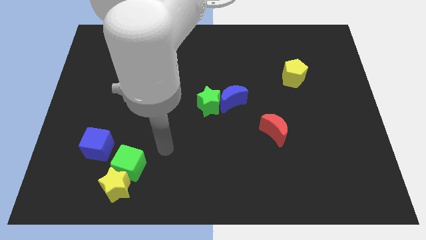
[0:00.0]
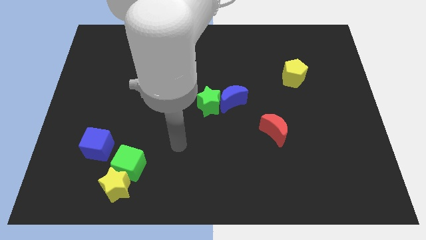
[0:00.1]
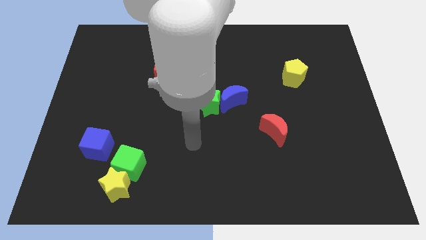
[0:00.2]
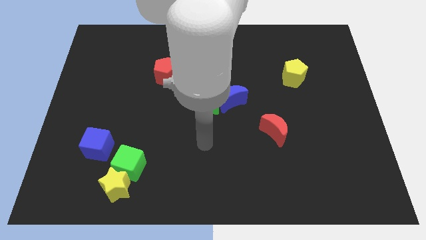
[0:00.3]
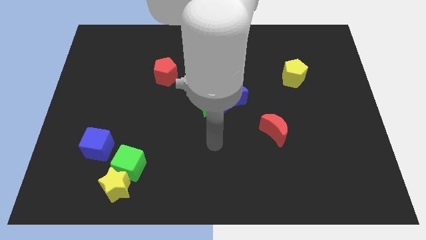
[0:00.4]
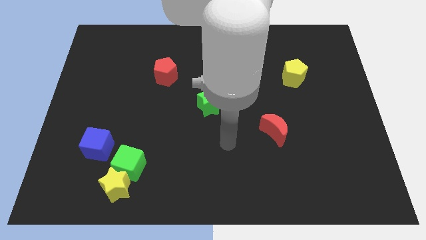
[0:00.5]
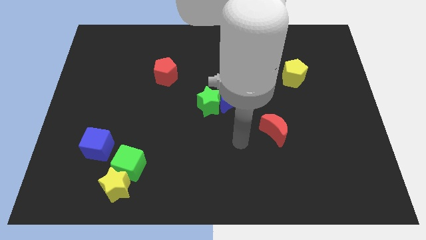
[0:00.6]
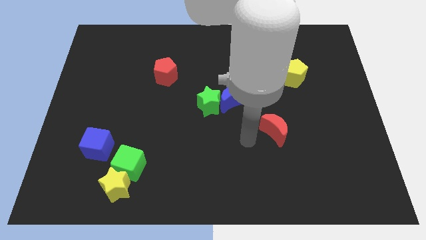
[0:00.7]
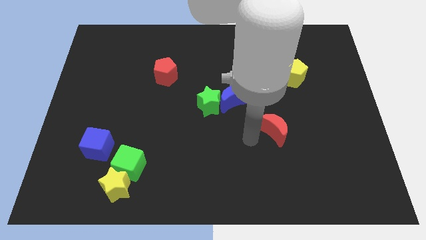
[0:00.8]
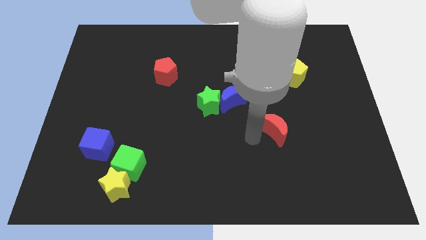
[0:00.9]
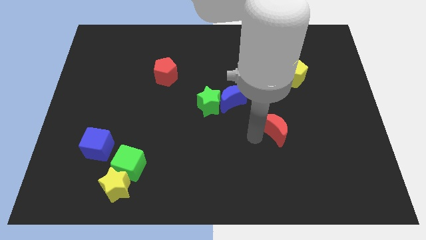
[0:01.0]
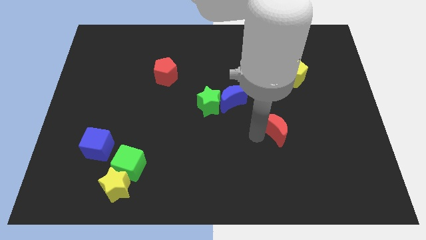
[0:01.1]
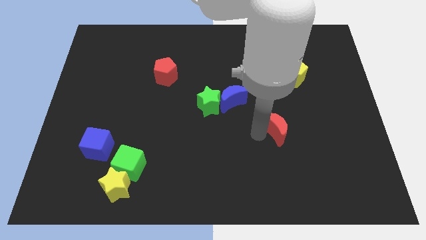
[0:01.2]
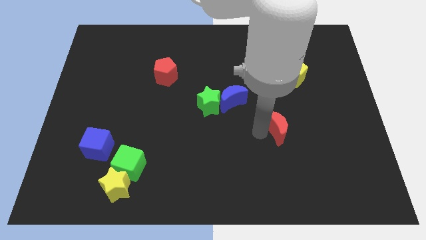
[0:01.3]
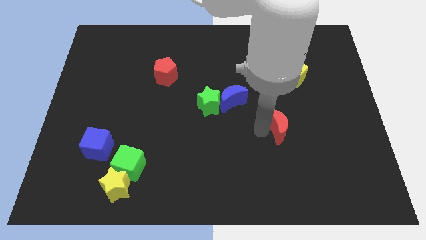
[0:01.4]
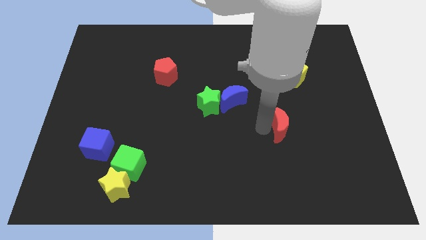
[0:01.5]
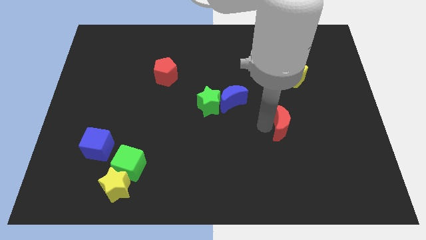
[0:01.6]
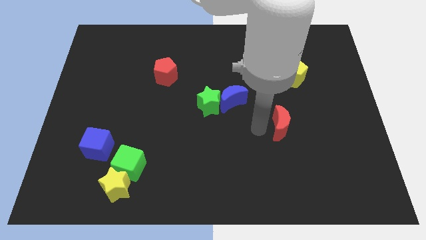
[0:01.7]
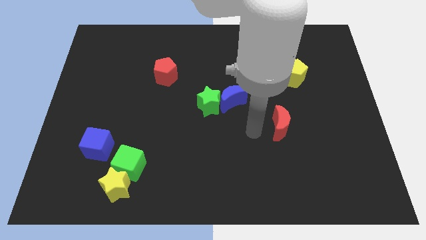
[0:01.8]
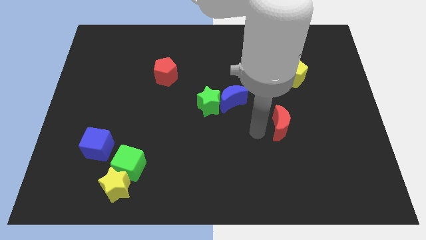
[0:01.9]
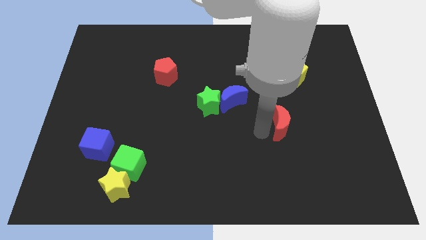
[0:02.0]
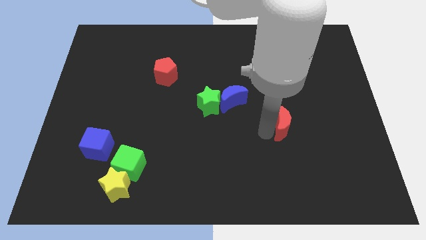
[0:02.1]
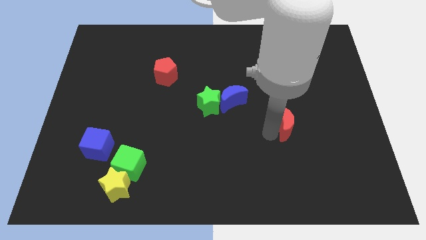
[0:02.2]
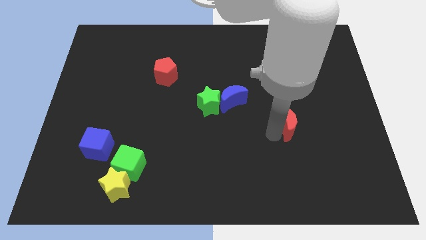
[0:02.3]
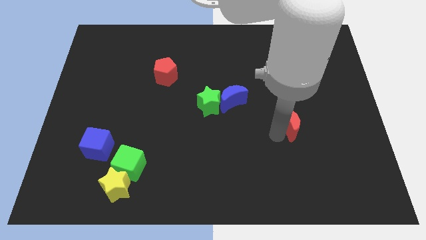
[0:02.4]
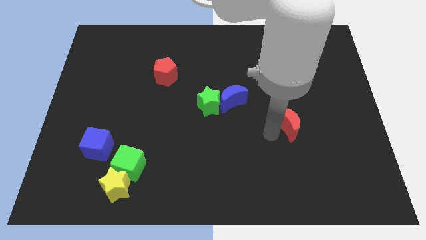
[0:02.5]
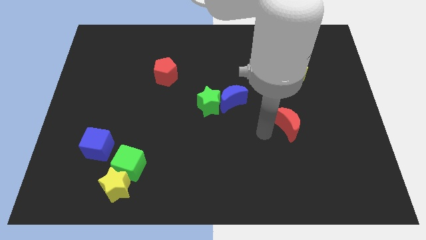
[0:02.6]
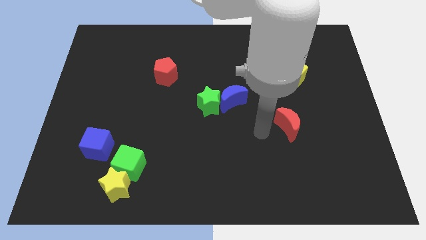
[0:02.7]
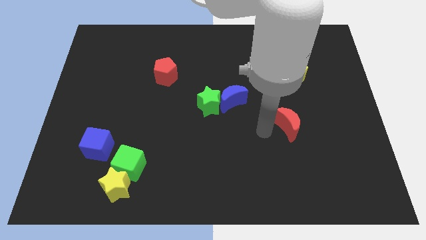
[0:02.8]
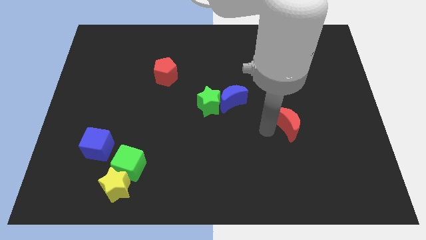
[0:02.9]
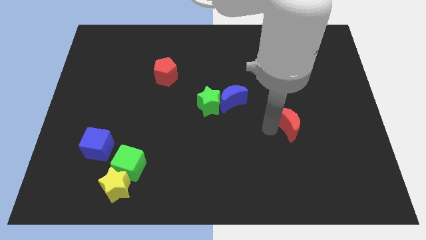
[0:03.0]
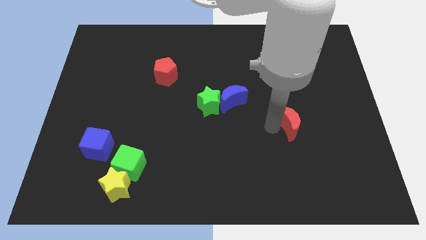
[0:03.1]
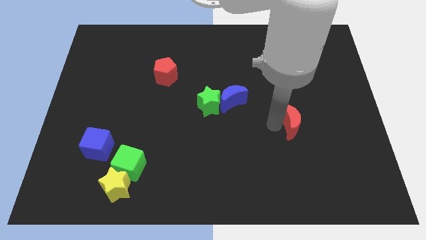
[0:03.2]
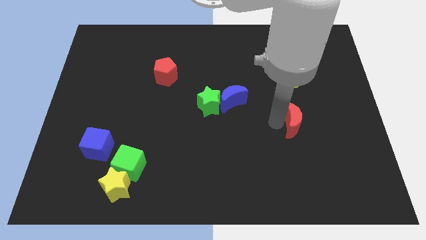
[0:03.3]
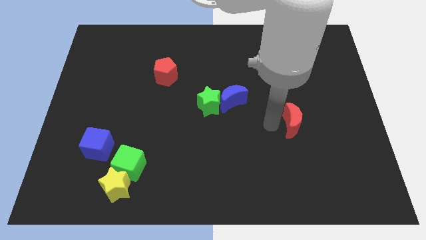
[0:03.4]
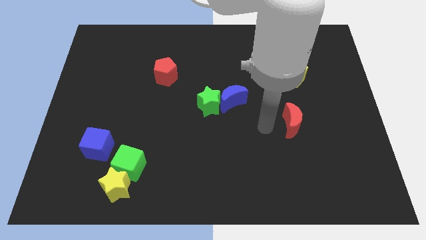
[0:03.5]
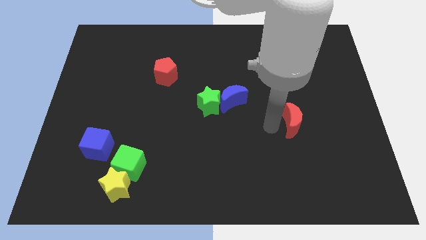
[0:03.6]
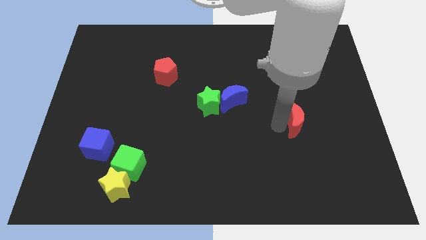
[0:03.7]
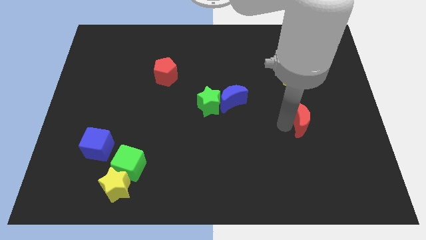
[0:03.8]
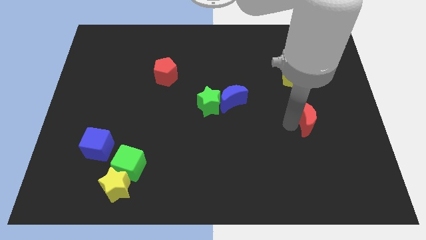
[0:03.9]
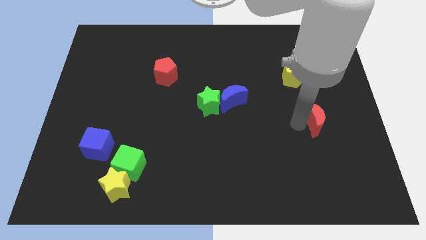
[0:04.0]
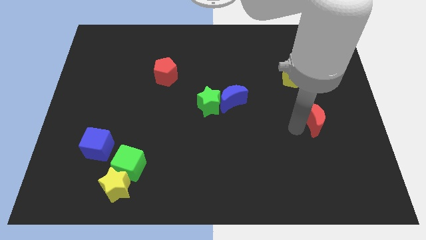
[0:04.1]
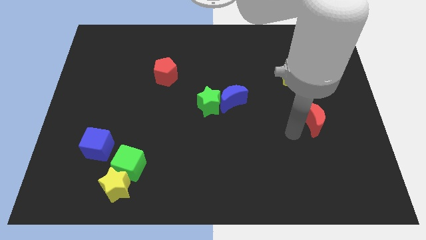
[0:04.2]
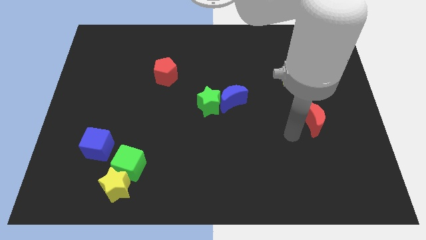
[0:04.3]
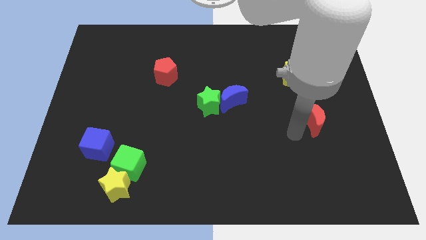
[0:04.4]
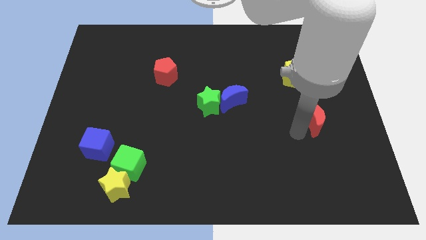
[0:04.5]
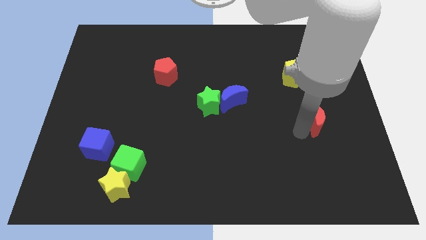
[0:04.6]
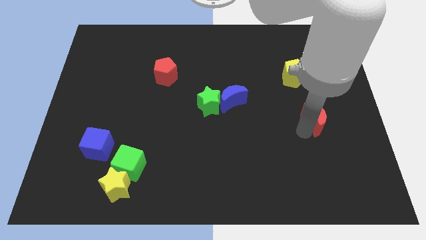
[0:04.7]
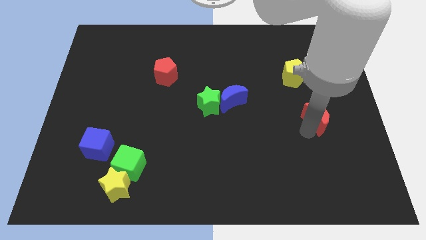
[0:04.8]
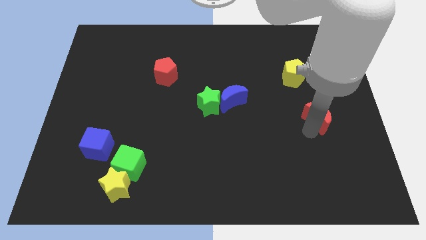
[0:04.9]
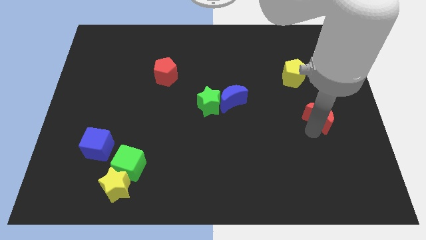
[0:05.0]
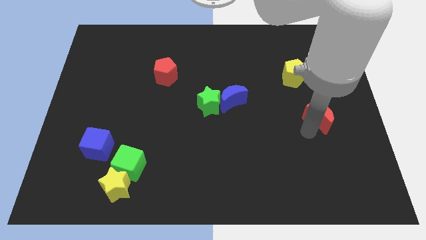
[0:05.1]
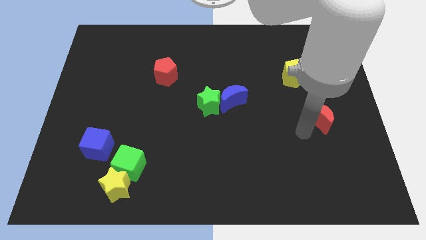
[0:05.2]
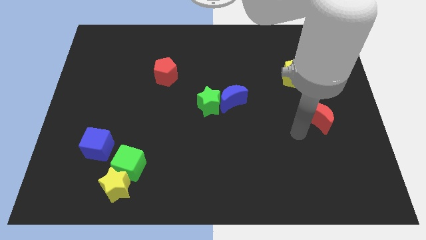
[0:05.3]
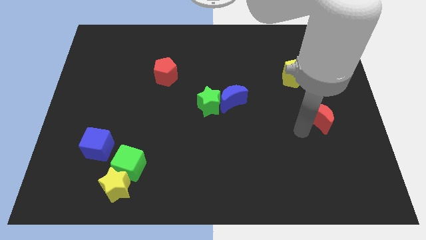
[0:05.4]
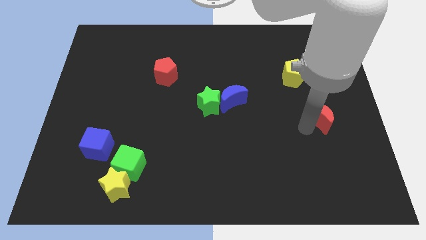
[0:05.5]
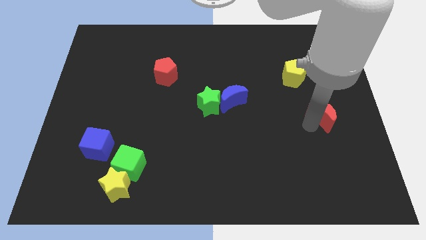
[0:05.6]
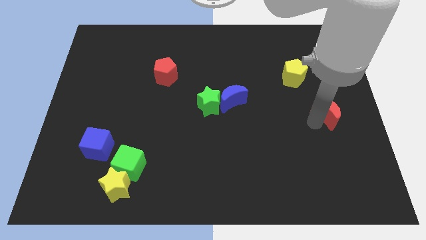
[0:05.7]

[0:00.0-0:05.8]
push the red moon to the right side

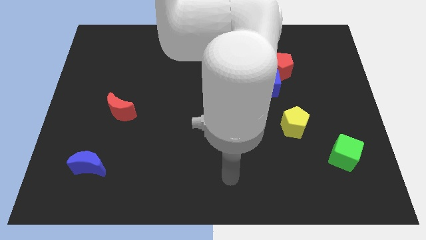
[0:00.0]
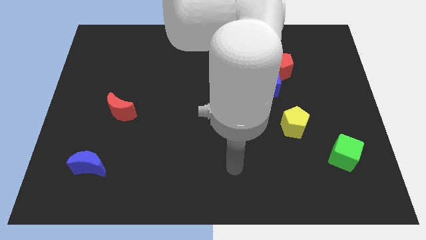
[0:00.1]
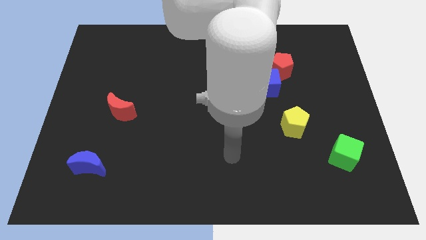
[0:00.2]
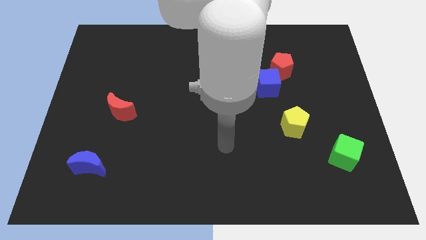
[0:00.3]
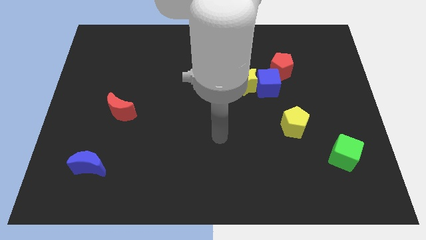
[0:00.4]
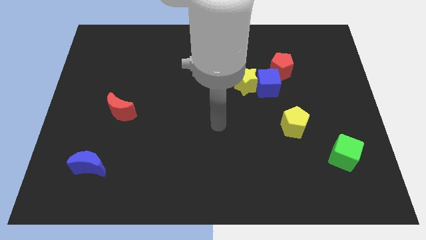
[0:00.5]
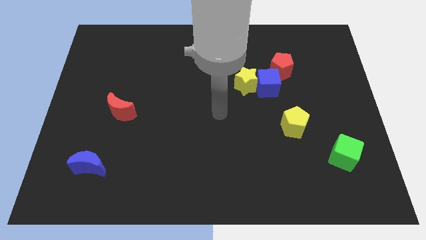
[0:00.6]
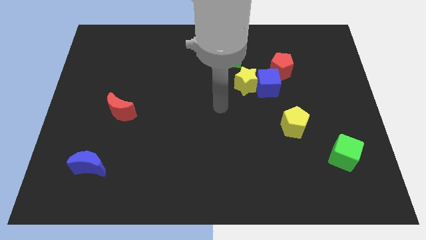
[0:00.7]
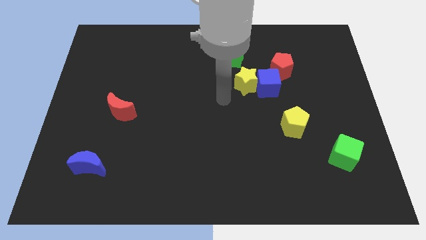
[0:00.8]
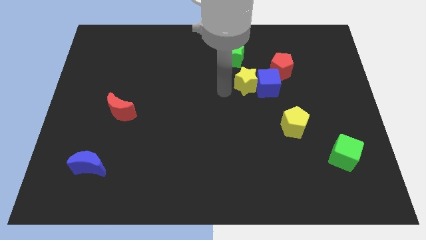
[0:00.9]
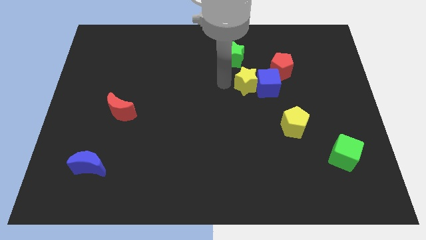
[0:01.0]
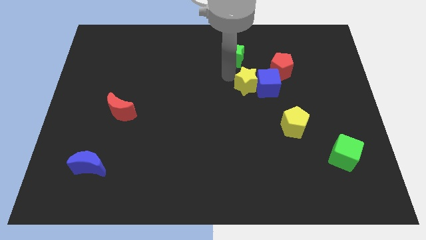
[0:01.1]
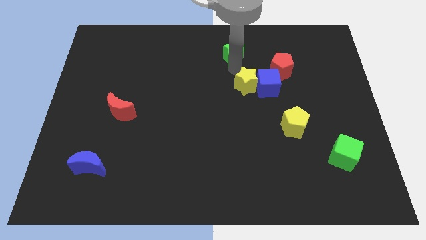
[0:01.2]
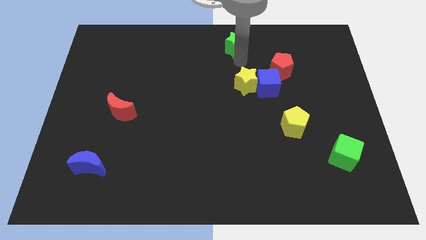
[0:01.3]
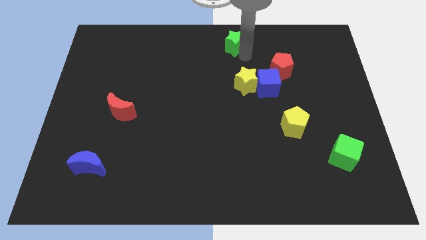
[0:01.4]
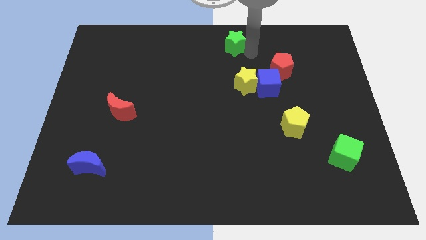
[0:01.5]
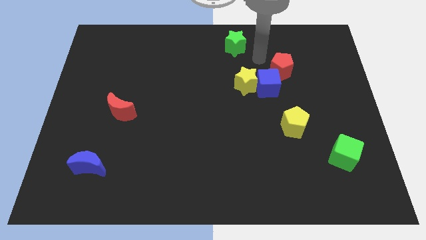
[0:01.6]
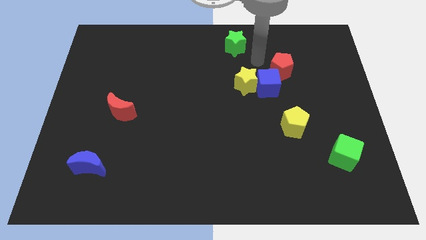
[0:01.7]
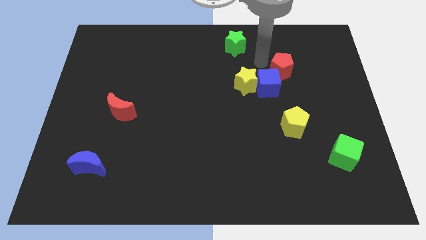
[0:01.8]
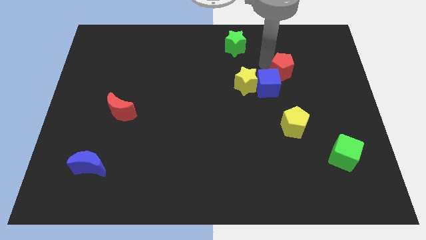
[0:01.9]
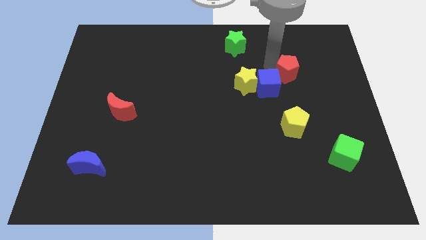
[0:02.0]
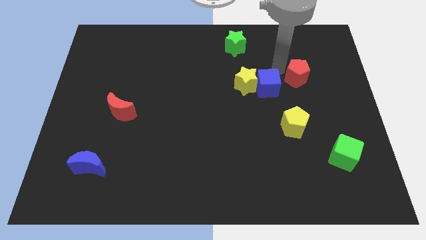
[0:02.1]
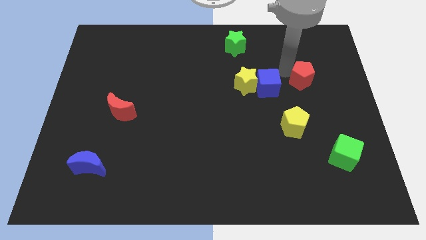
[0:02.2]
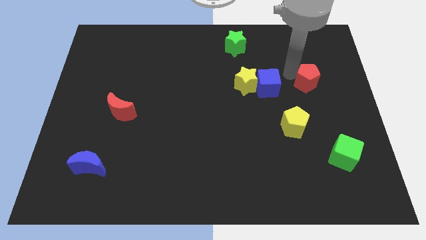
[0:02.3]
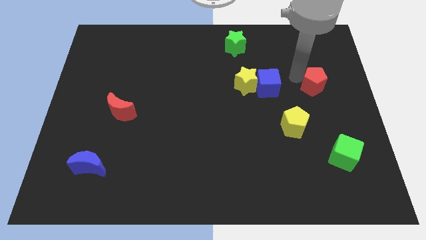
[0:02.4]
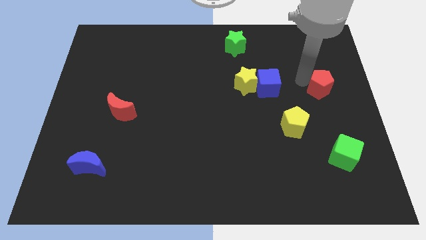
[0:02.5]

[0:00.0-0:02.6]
put the red pentagon to the right side
